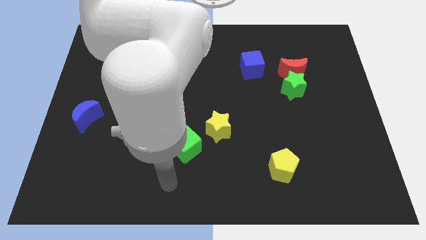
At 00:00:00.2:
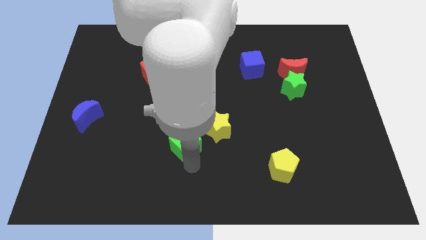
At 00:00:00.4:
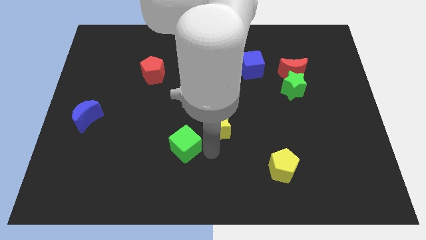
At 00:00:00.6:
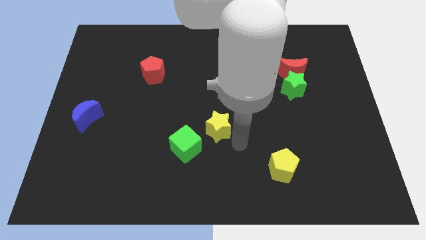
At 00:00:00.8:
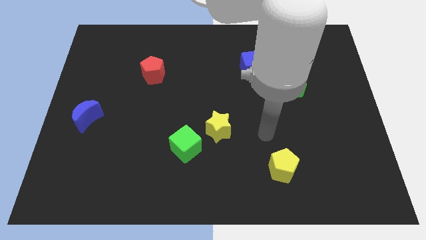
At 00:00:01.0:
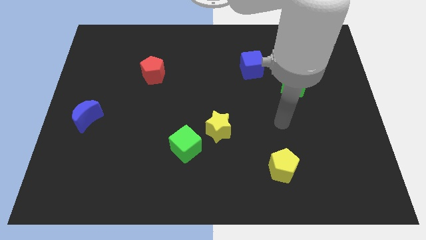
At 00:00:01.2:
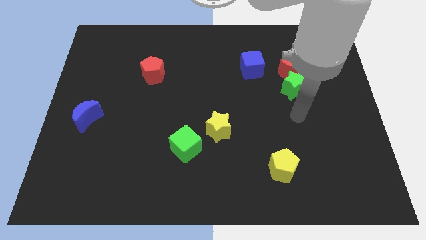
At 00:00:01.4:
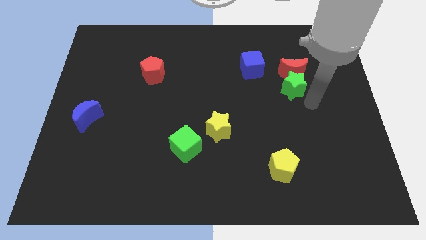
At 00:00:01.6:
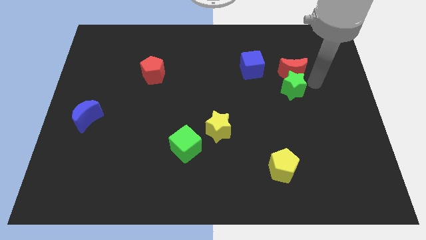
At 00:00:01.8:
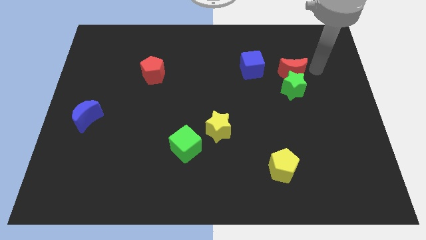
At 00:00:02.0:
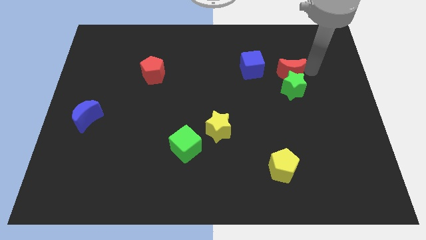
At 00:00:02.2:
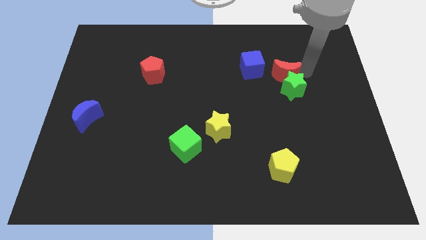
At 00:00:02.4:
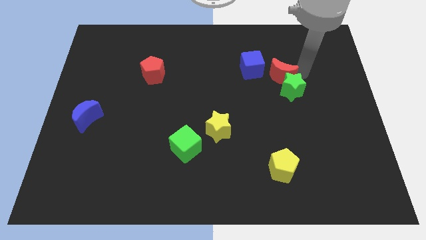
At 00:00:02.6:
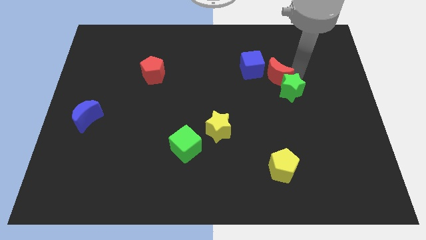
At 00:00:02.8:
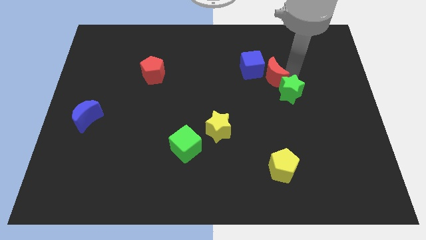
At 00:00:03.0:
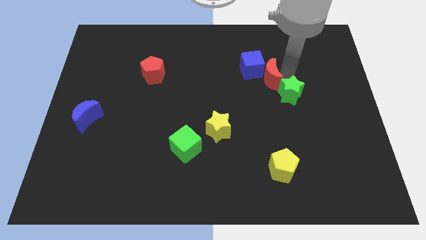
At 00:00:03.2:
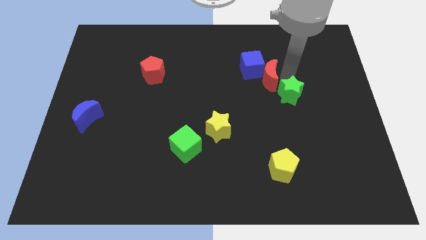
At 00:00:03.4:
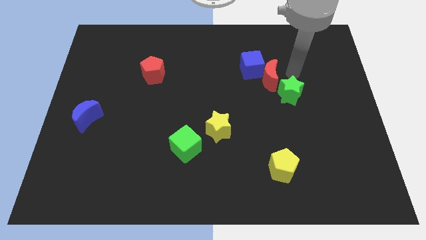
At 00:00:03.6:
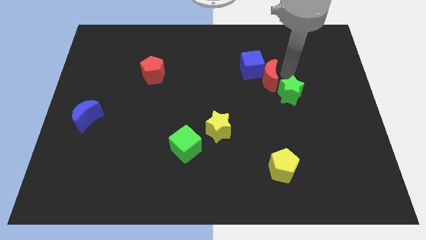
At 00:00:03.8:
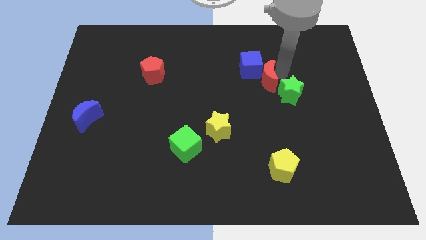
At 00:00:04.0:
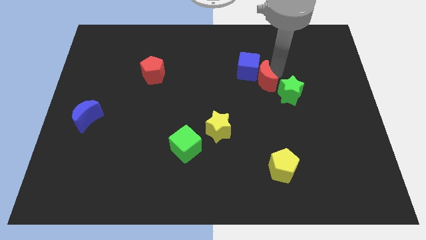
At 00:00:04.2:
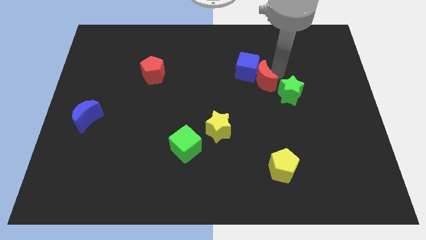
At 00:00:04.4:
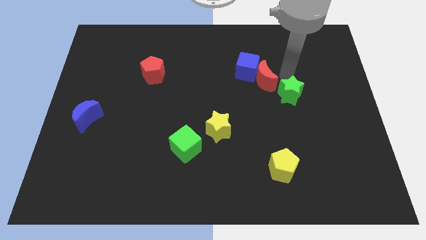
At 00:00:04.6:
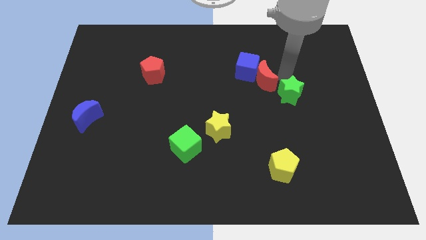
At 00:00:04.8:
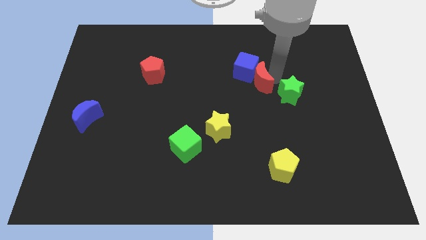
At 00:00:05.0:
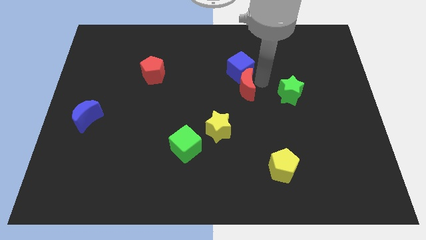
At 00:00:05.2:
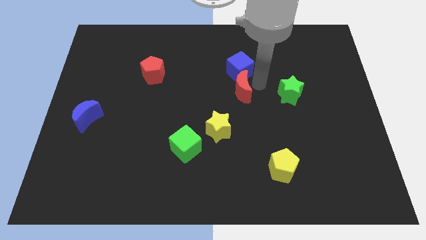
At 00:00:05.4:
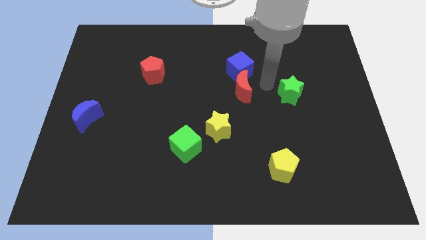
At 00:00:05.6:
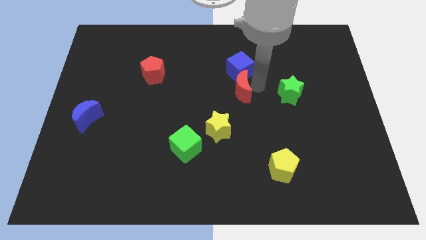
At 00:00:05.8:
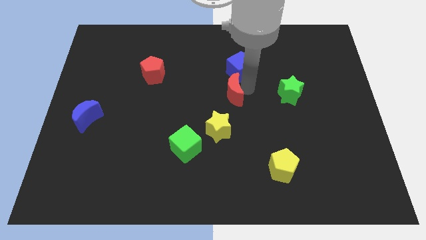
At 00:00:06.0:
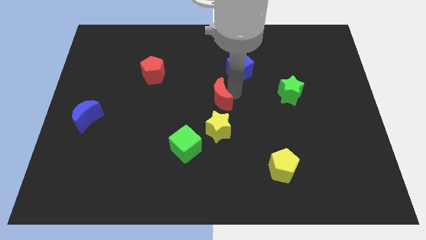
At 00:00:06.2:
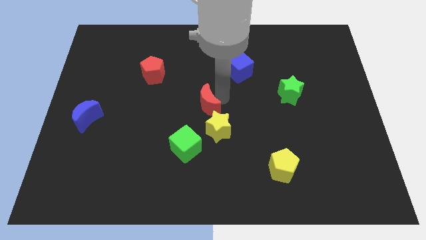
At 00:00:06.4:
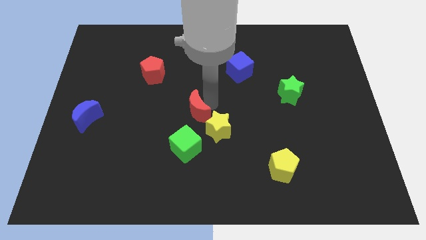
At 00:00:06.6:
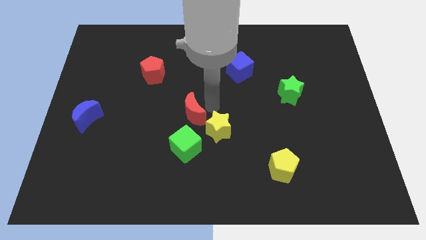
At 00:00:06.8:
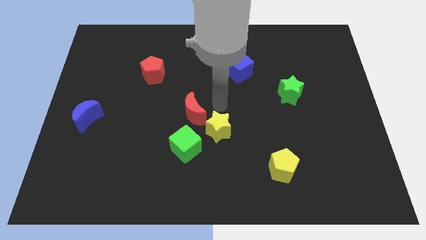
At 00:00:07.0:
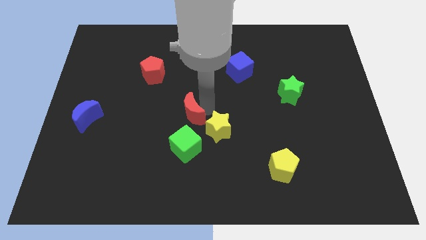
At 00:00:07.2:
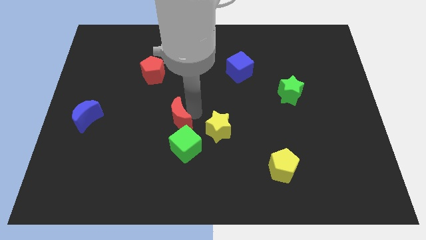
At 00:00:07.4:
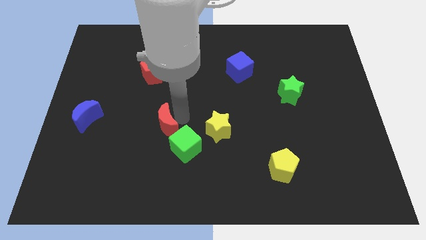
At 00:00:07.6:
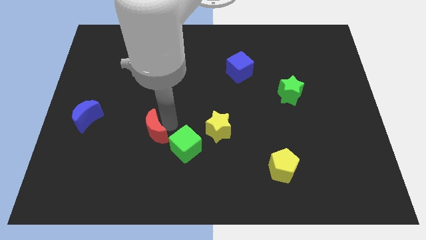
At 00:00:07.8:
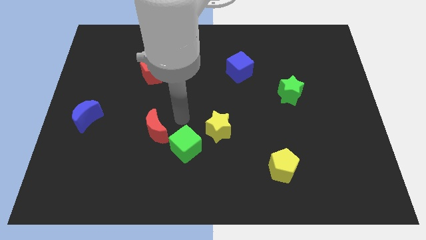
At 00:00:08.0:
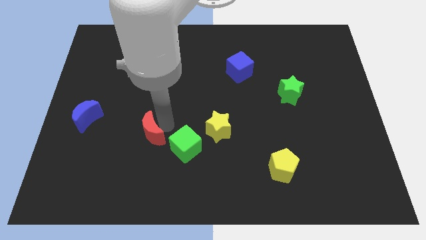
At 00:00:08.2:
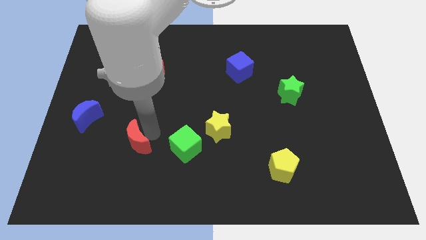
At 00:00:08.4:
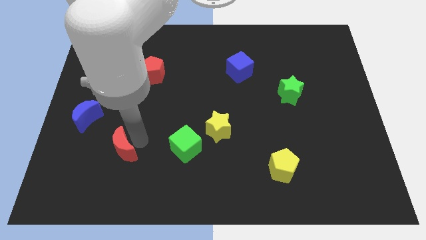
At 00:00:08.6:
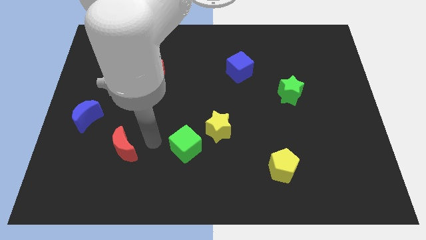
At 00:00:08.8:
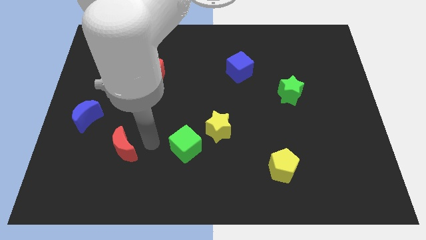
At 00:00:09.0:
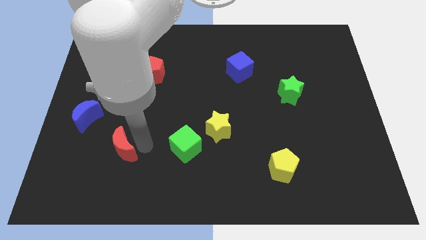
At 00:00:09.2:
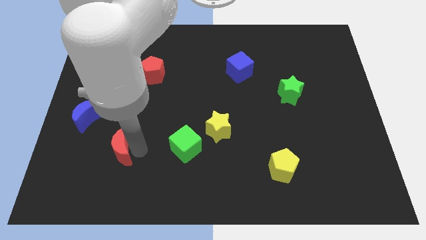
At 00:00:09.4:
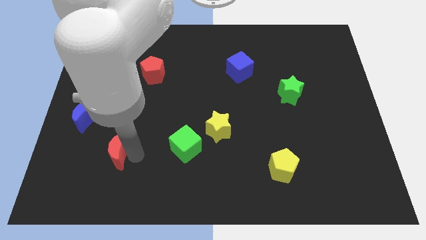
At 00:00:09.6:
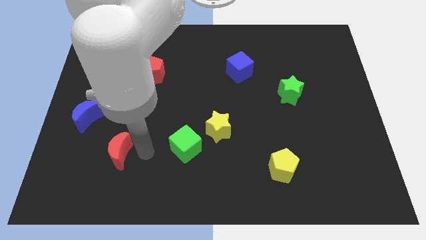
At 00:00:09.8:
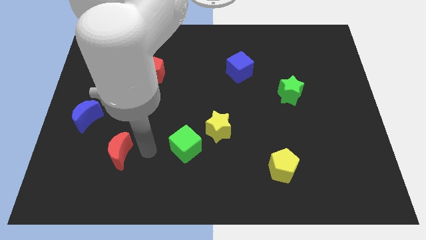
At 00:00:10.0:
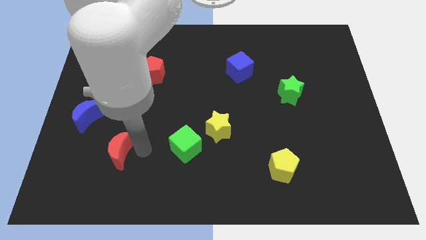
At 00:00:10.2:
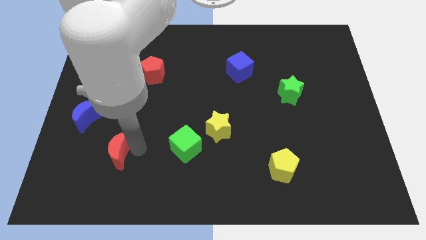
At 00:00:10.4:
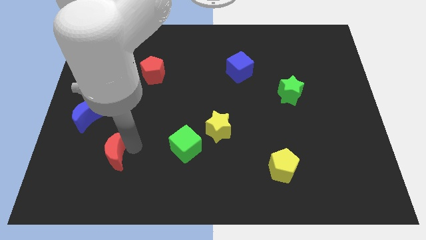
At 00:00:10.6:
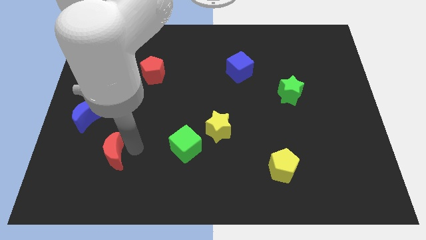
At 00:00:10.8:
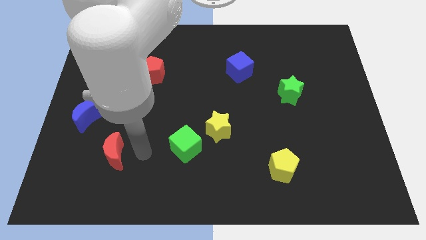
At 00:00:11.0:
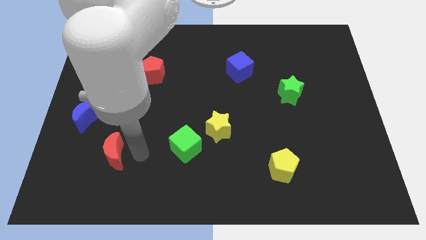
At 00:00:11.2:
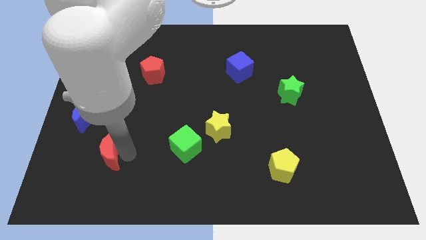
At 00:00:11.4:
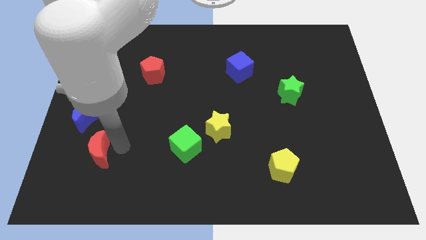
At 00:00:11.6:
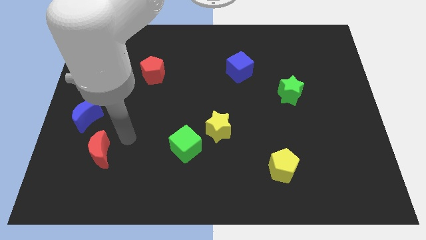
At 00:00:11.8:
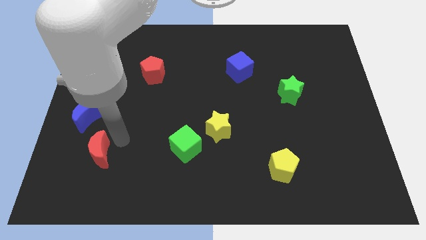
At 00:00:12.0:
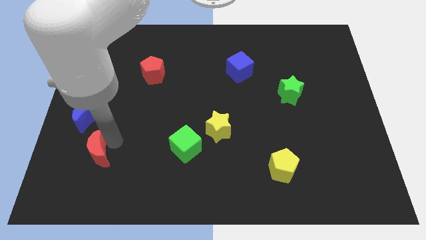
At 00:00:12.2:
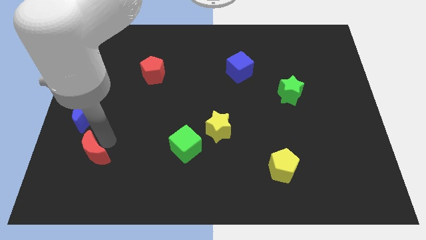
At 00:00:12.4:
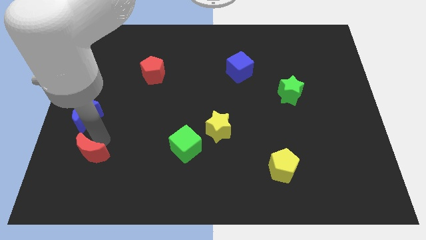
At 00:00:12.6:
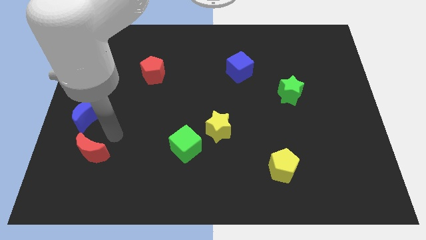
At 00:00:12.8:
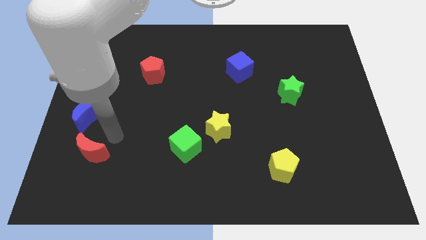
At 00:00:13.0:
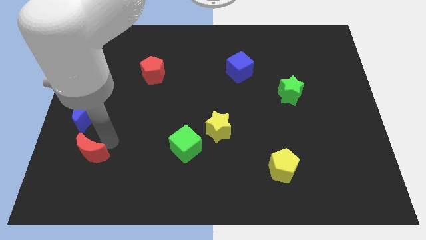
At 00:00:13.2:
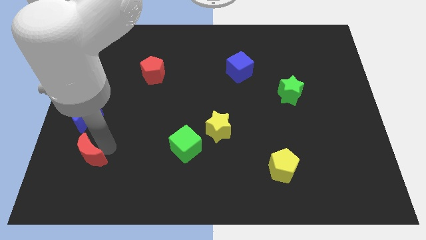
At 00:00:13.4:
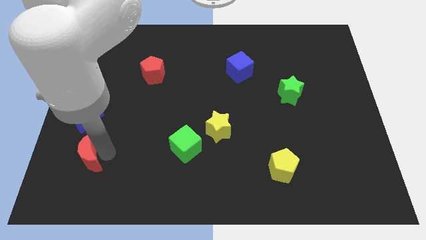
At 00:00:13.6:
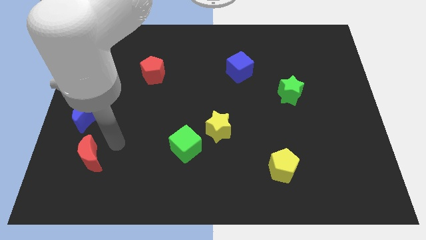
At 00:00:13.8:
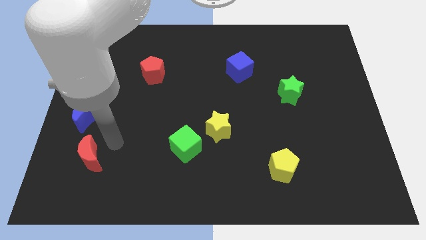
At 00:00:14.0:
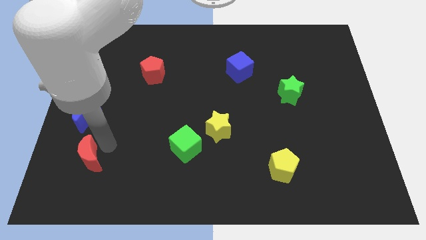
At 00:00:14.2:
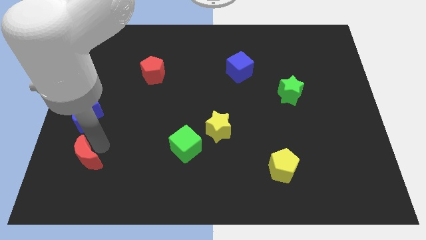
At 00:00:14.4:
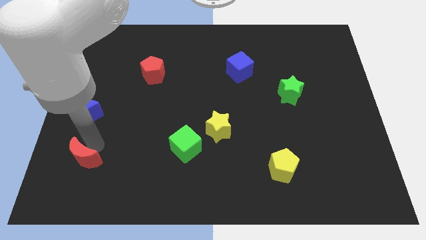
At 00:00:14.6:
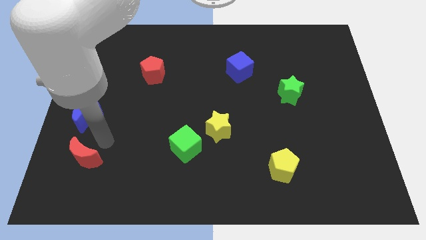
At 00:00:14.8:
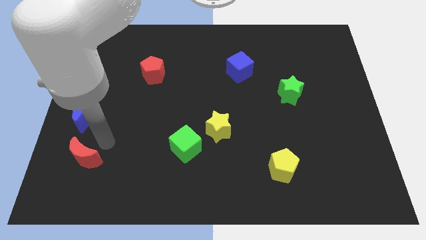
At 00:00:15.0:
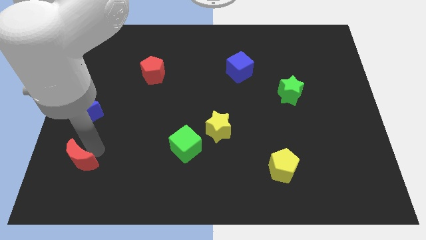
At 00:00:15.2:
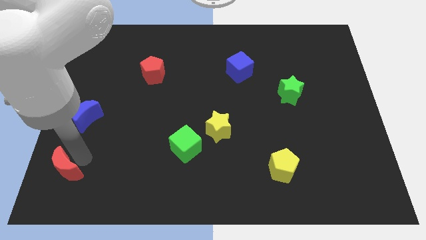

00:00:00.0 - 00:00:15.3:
move the red moon to the bottom left corner
